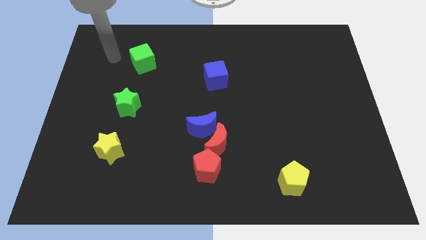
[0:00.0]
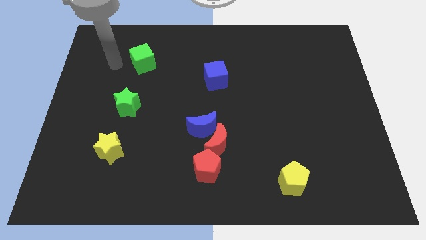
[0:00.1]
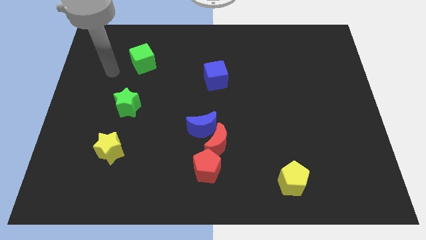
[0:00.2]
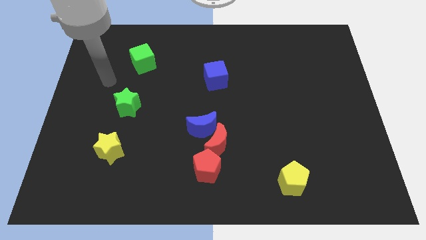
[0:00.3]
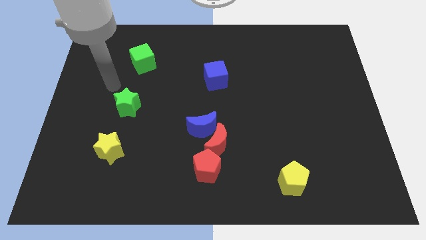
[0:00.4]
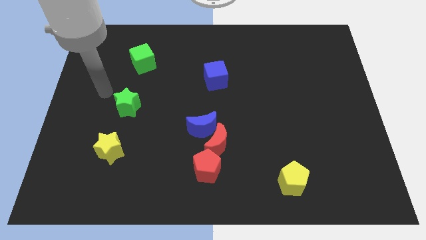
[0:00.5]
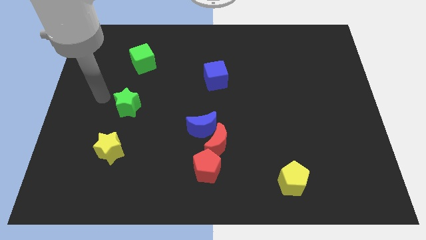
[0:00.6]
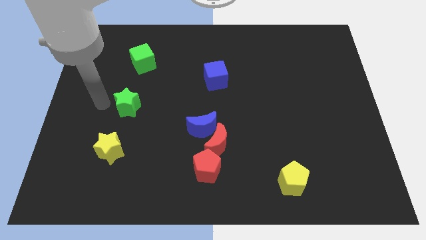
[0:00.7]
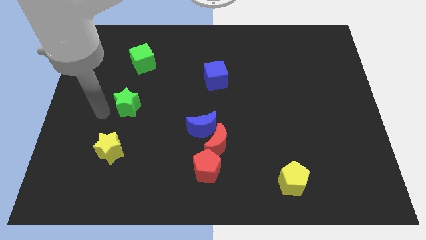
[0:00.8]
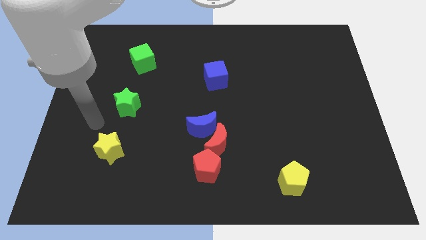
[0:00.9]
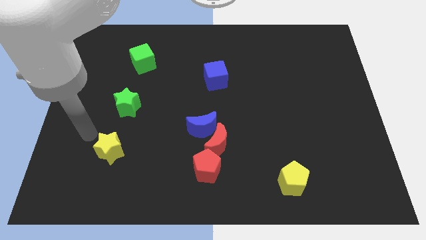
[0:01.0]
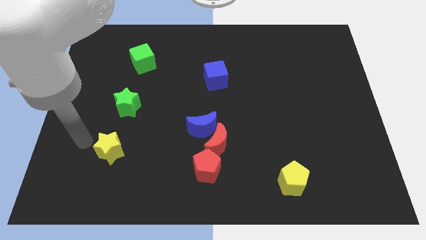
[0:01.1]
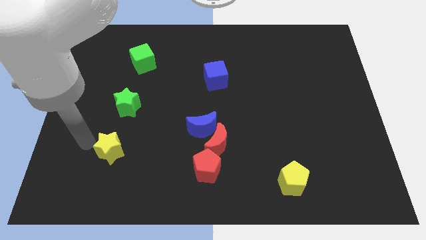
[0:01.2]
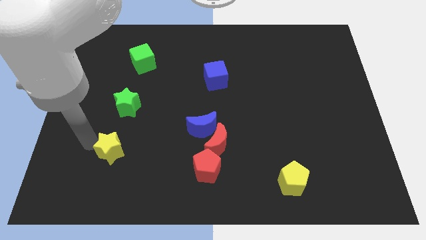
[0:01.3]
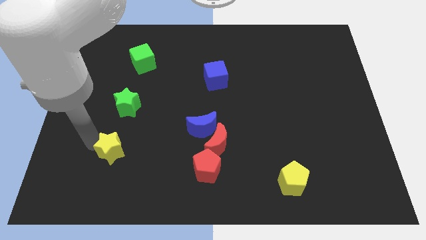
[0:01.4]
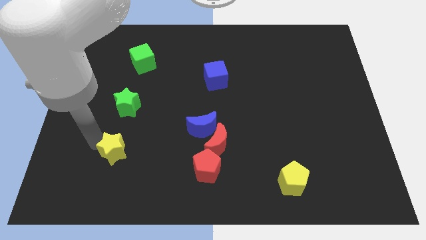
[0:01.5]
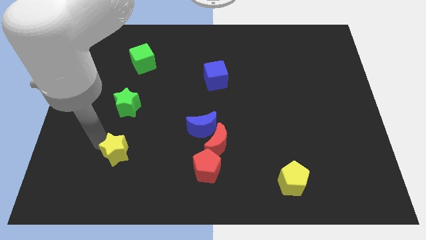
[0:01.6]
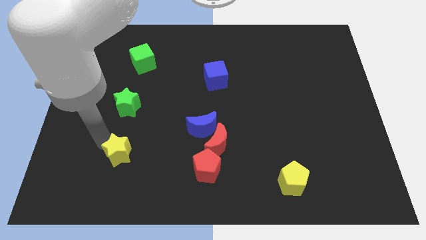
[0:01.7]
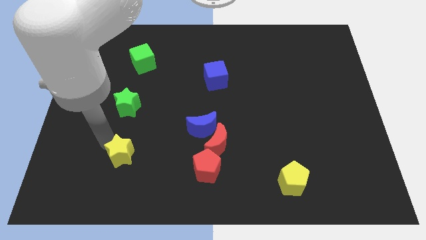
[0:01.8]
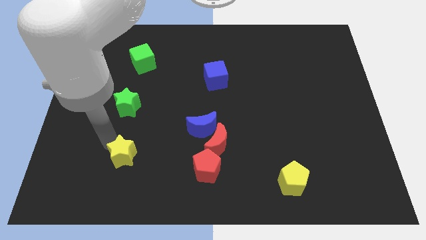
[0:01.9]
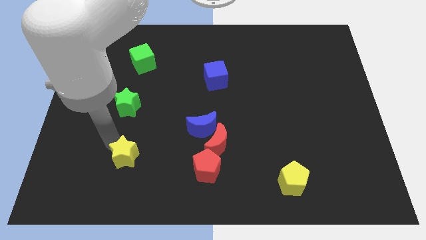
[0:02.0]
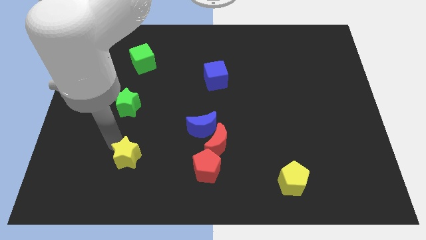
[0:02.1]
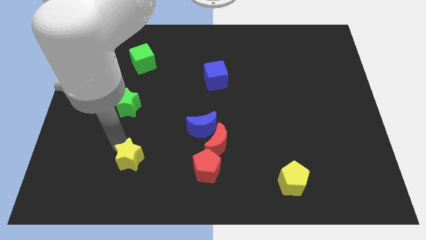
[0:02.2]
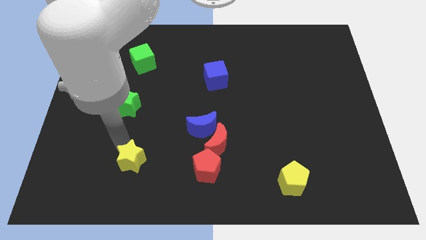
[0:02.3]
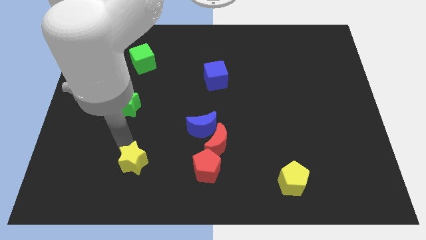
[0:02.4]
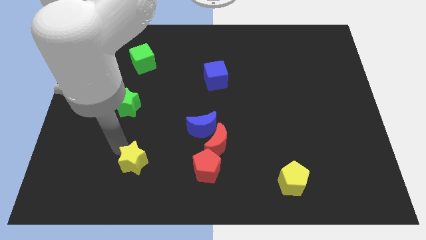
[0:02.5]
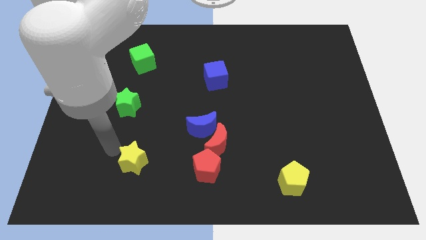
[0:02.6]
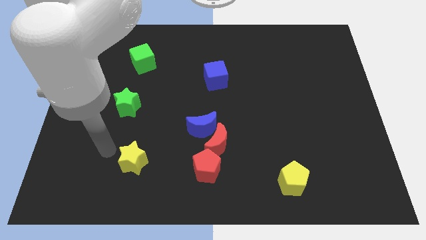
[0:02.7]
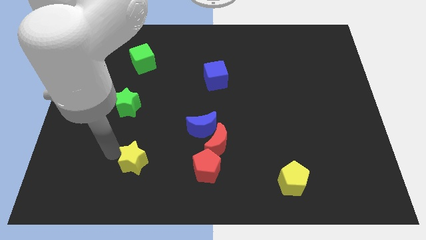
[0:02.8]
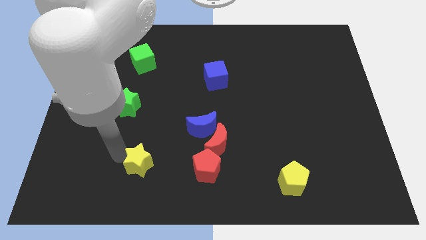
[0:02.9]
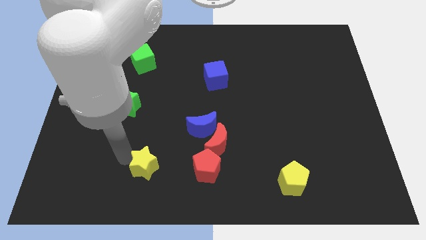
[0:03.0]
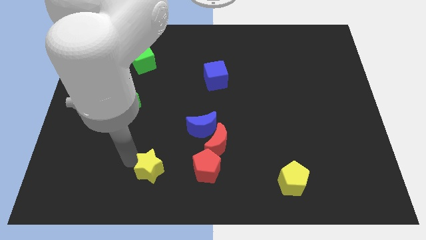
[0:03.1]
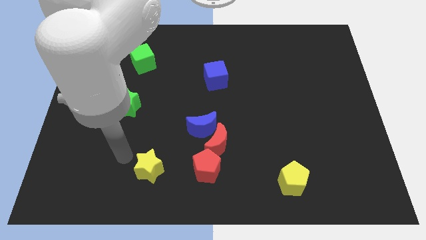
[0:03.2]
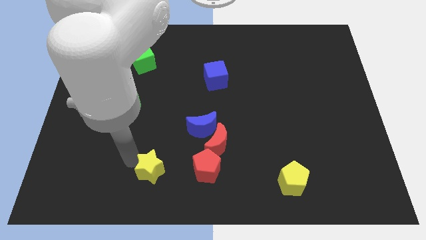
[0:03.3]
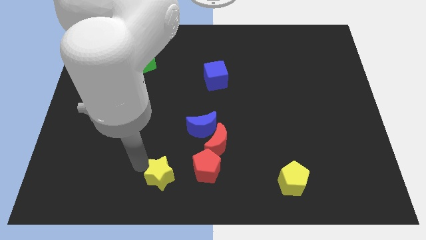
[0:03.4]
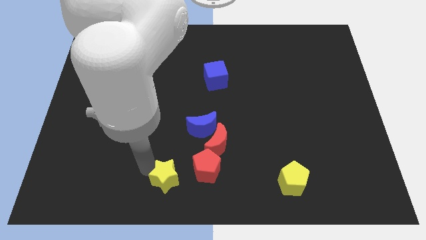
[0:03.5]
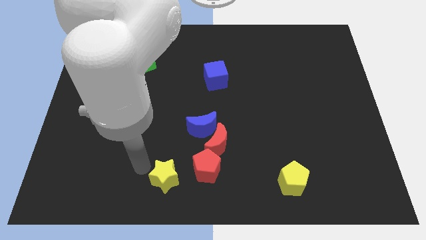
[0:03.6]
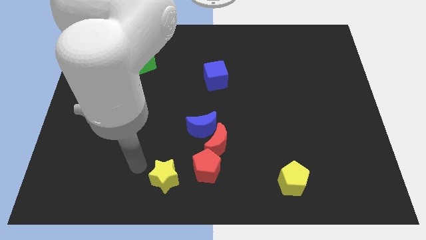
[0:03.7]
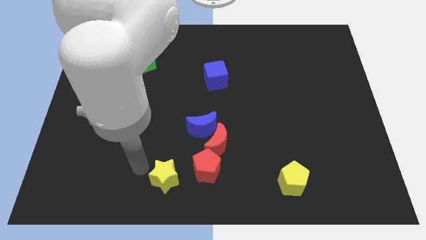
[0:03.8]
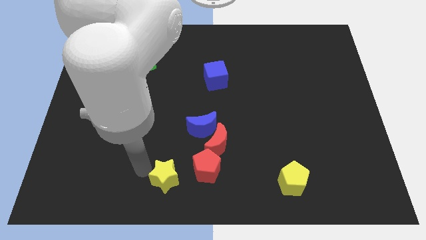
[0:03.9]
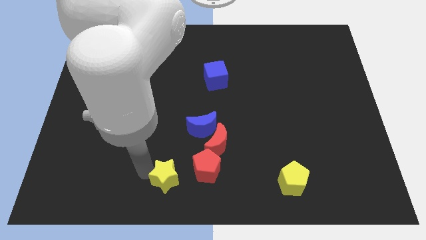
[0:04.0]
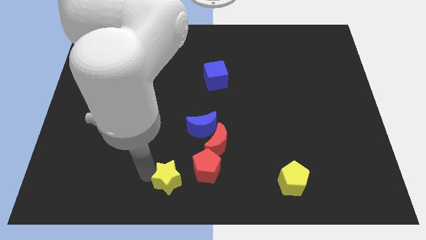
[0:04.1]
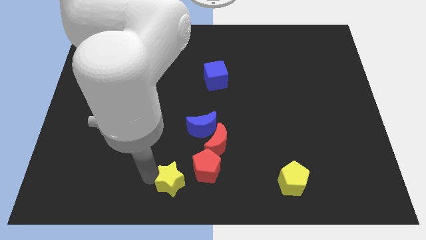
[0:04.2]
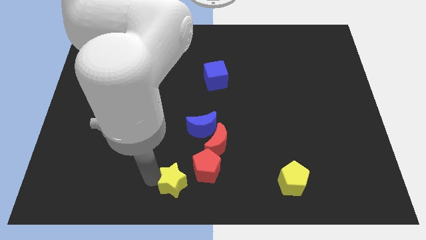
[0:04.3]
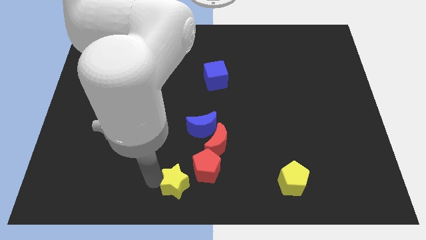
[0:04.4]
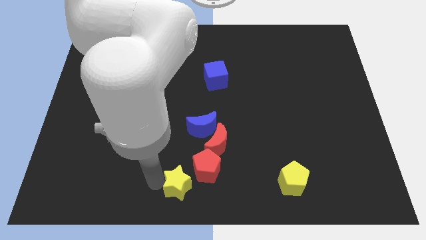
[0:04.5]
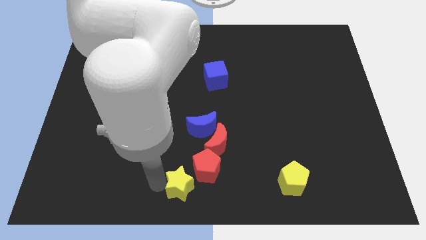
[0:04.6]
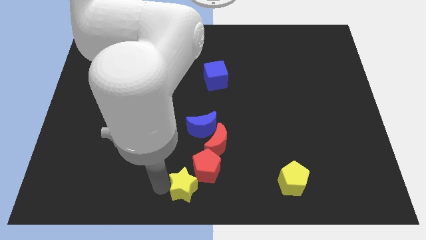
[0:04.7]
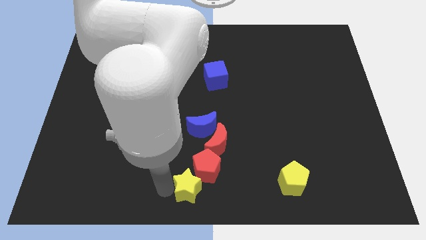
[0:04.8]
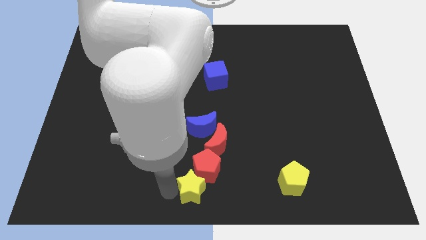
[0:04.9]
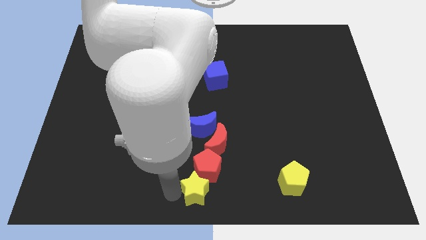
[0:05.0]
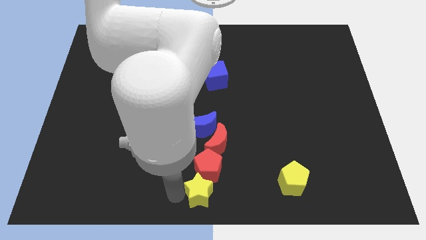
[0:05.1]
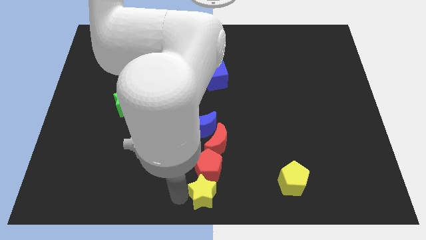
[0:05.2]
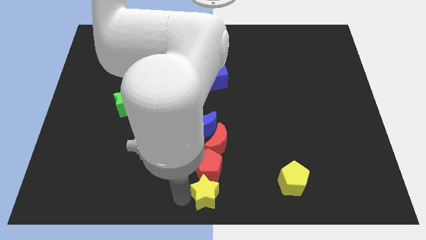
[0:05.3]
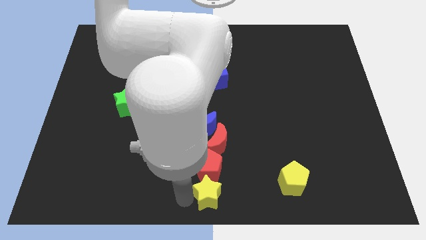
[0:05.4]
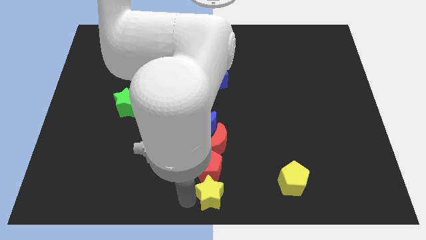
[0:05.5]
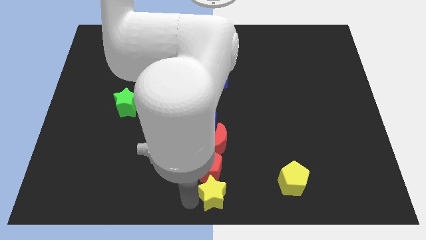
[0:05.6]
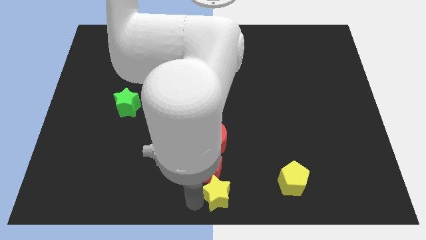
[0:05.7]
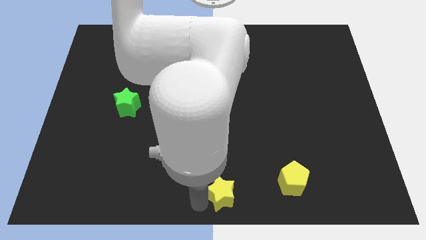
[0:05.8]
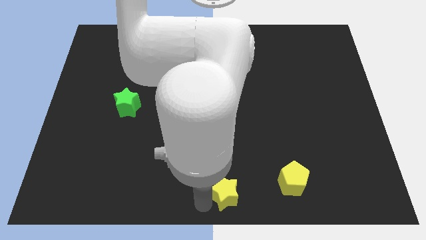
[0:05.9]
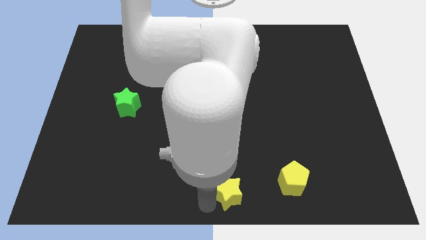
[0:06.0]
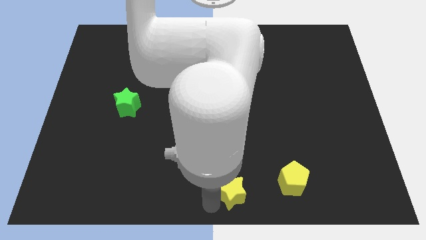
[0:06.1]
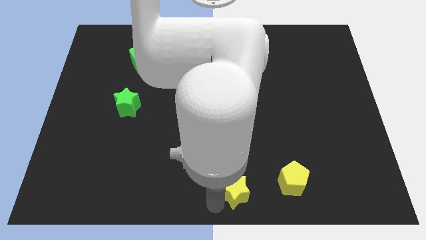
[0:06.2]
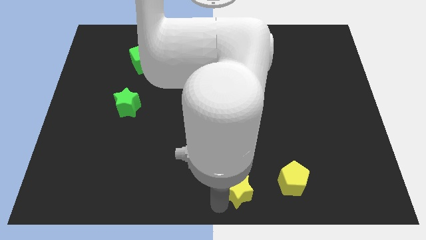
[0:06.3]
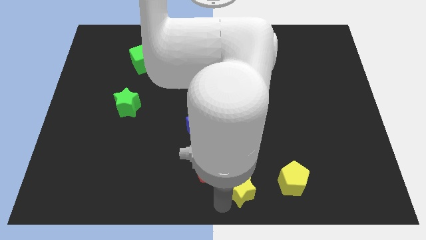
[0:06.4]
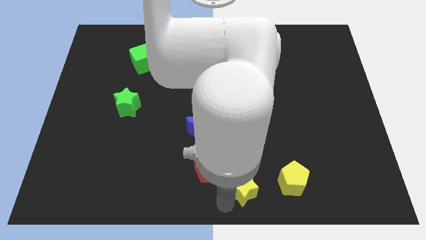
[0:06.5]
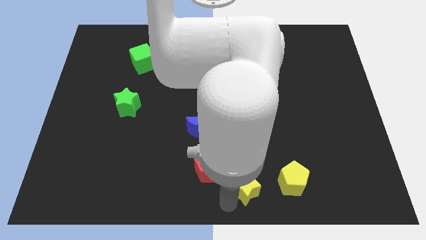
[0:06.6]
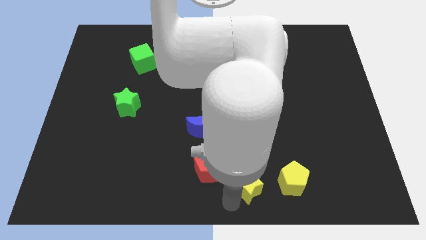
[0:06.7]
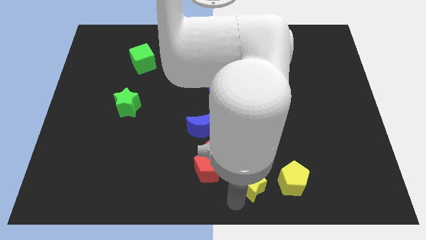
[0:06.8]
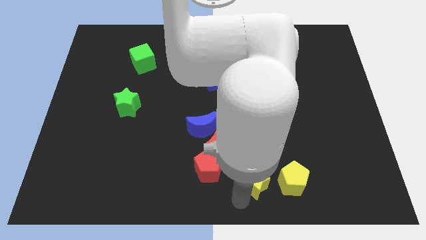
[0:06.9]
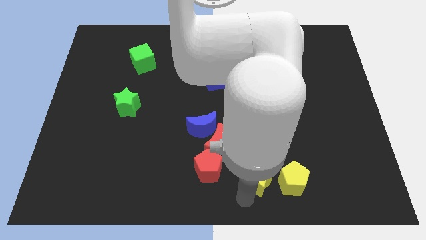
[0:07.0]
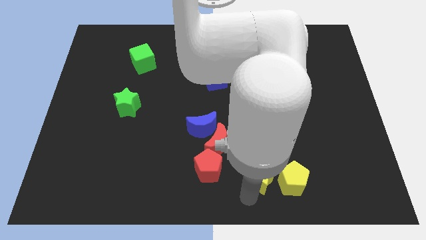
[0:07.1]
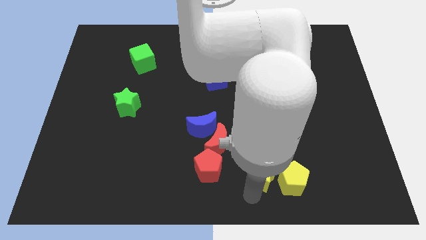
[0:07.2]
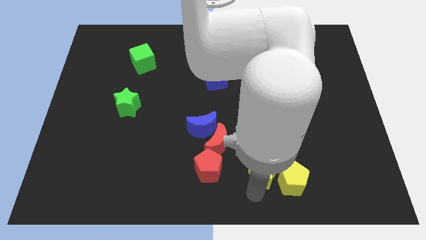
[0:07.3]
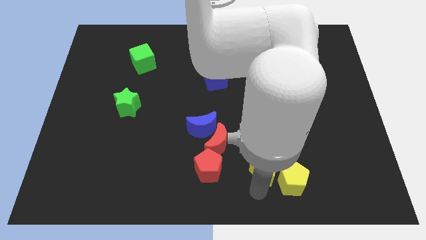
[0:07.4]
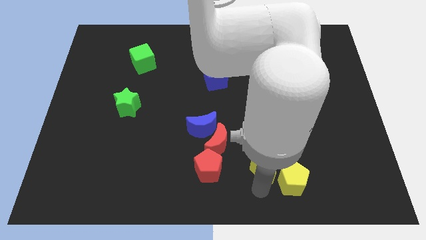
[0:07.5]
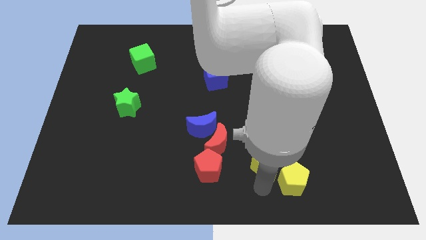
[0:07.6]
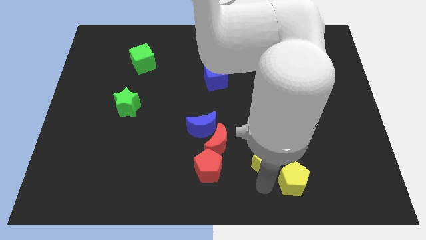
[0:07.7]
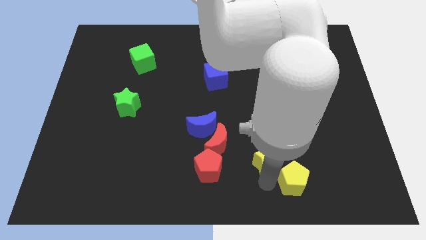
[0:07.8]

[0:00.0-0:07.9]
move the yellow star to the top of the yellow pentagon
